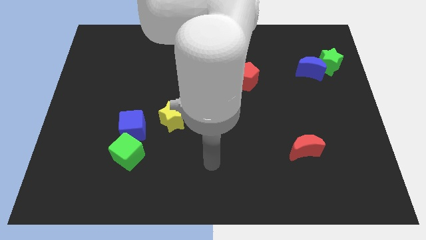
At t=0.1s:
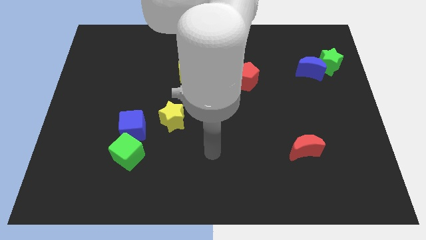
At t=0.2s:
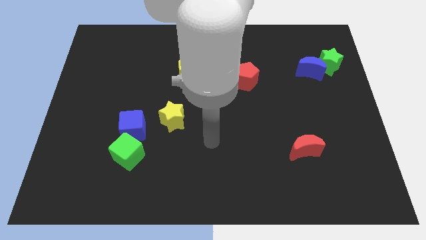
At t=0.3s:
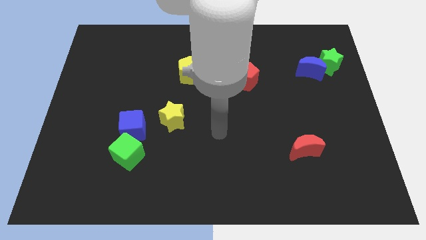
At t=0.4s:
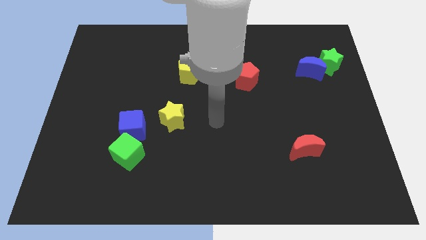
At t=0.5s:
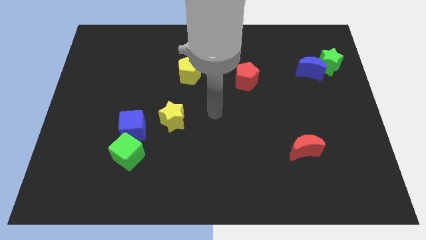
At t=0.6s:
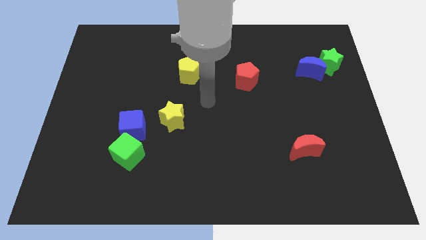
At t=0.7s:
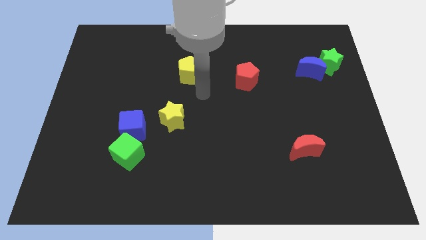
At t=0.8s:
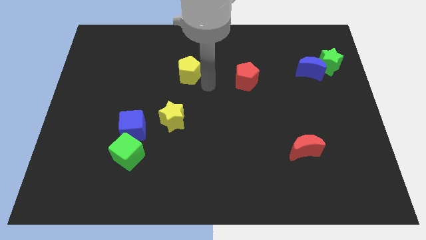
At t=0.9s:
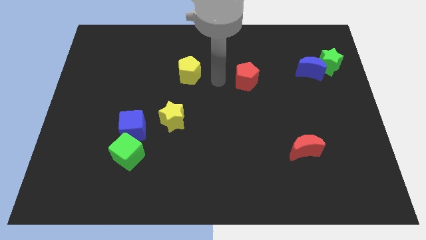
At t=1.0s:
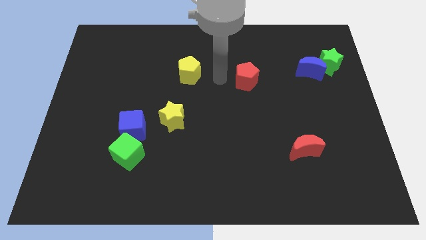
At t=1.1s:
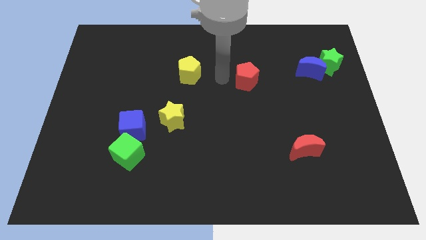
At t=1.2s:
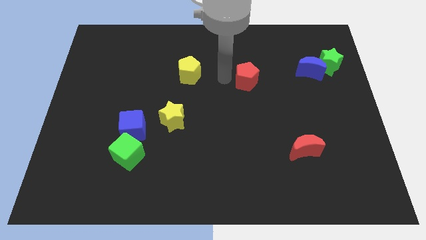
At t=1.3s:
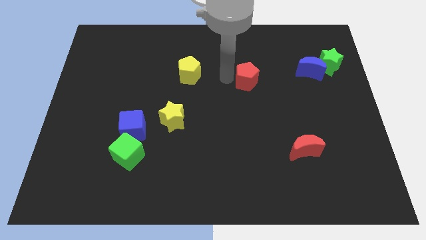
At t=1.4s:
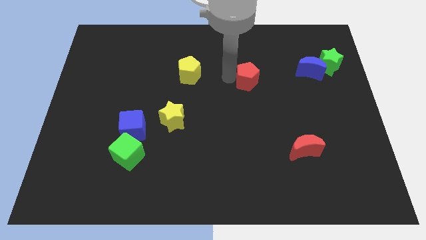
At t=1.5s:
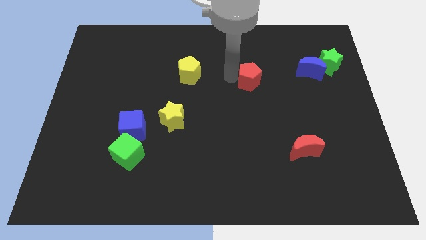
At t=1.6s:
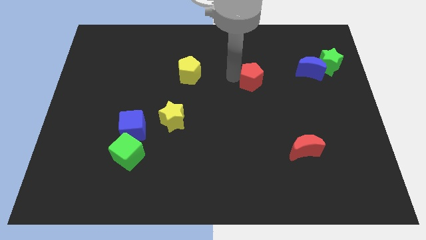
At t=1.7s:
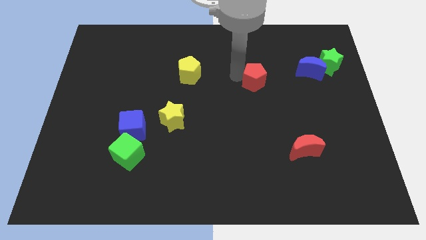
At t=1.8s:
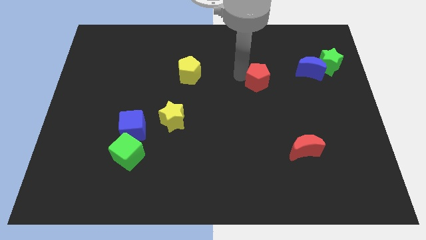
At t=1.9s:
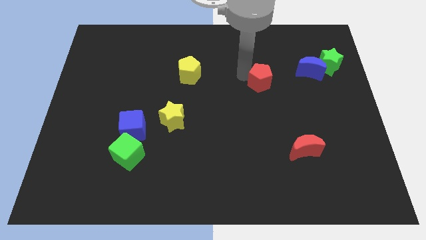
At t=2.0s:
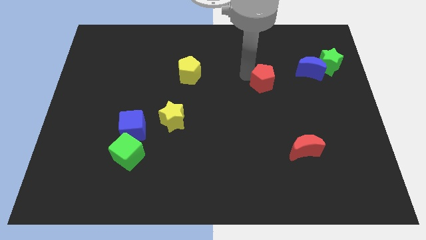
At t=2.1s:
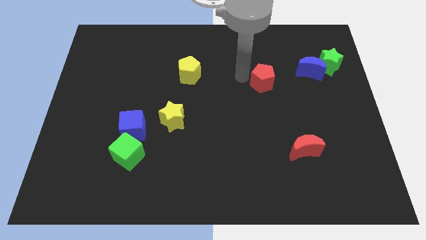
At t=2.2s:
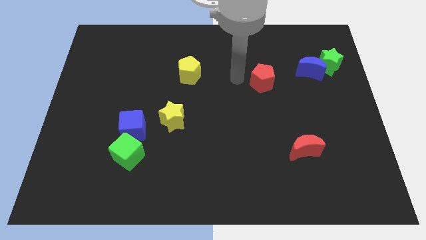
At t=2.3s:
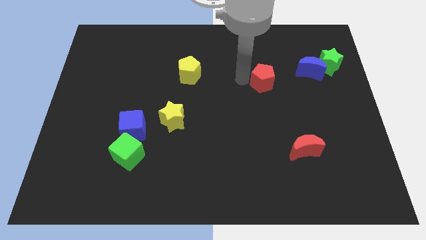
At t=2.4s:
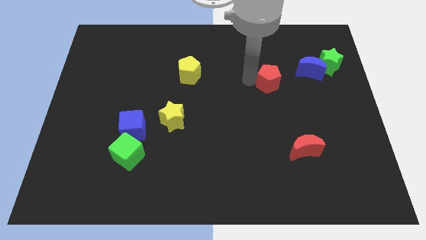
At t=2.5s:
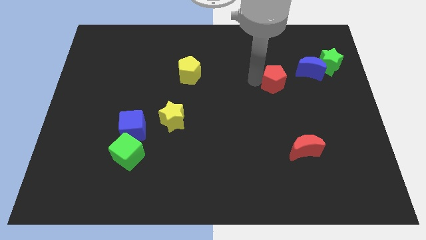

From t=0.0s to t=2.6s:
move the red pentagon somewhat to the right

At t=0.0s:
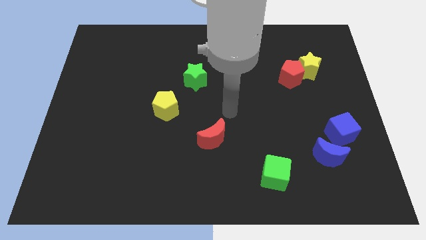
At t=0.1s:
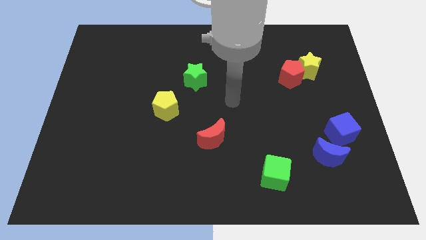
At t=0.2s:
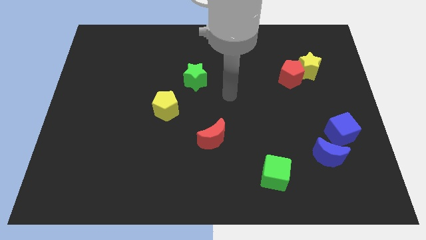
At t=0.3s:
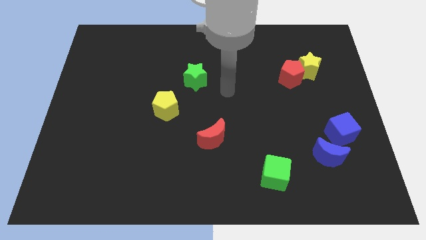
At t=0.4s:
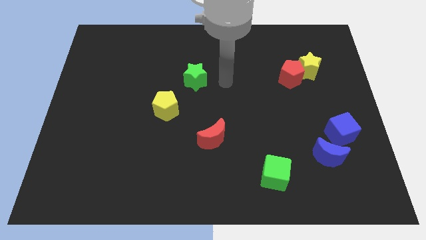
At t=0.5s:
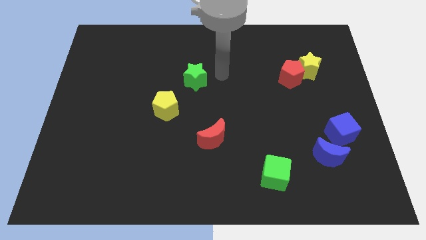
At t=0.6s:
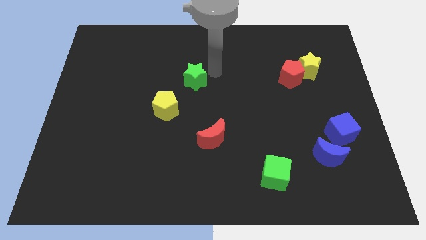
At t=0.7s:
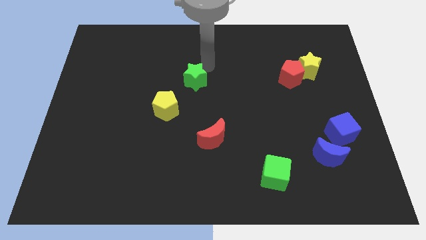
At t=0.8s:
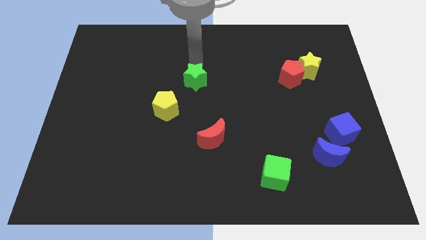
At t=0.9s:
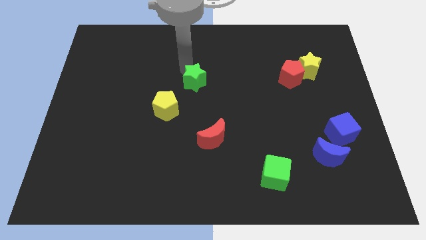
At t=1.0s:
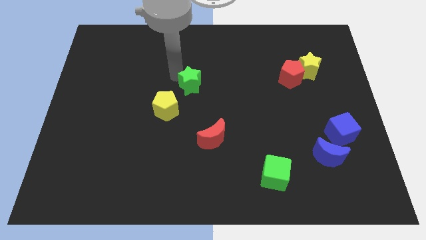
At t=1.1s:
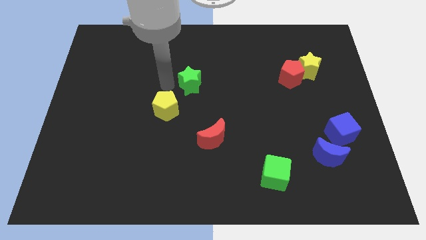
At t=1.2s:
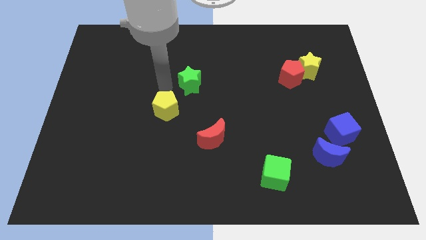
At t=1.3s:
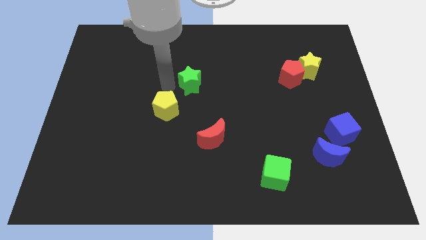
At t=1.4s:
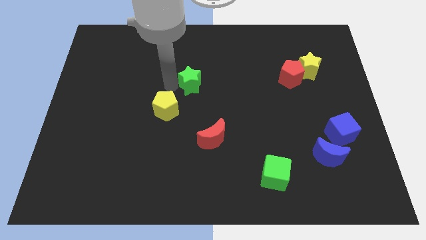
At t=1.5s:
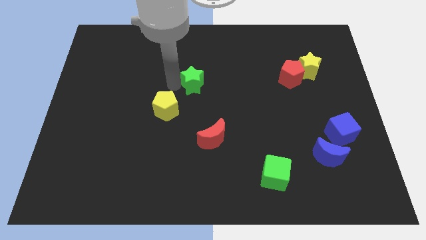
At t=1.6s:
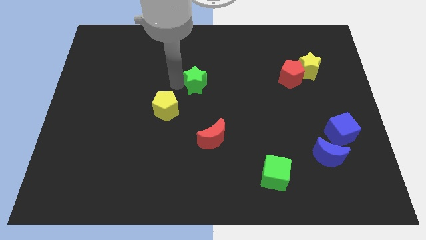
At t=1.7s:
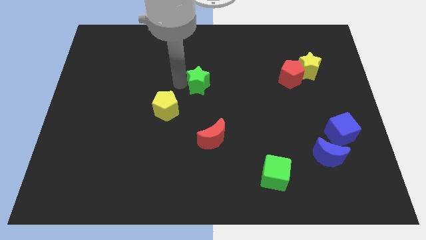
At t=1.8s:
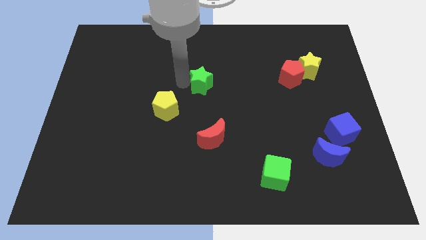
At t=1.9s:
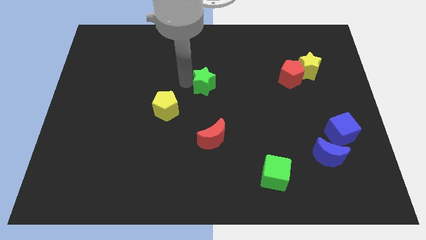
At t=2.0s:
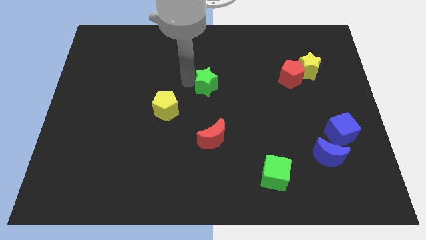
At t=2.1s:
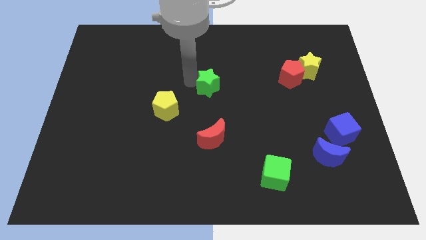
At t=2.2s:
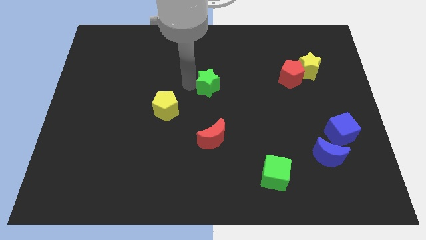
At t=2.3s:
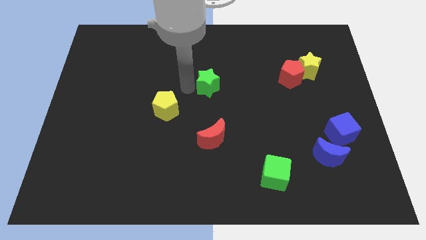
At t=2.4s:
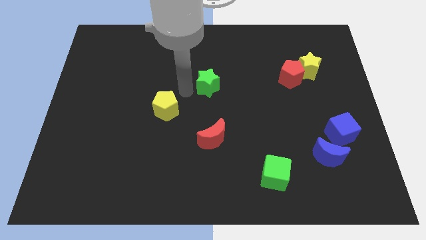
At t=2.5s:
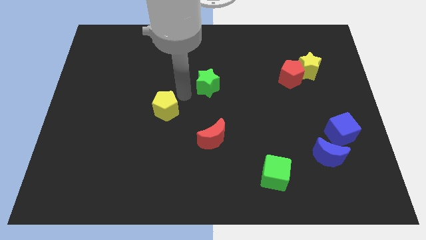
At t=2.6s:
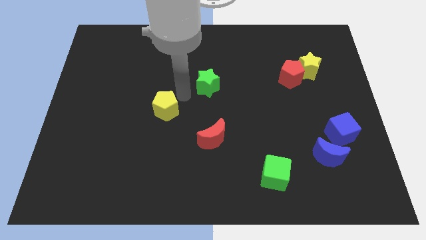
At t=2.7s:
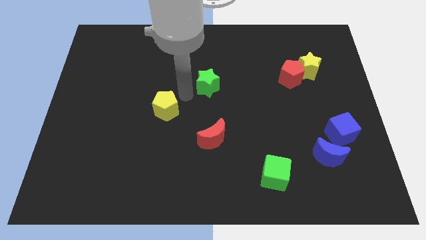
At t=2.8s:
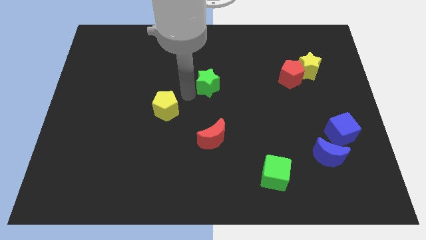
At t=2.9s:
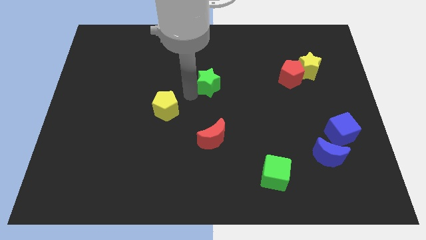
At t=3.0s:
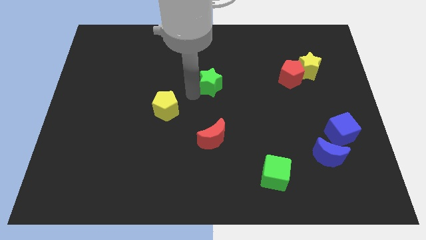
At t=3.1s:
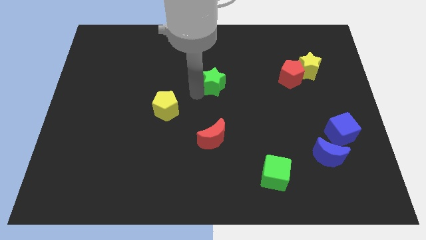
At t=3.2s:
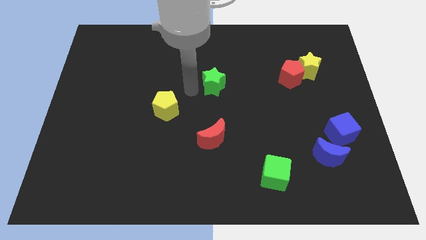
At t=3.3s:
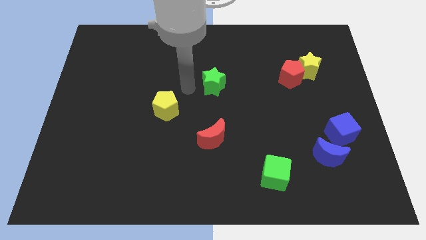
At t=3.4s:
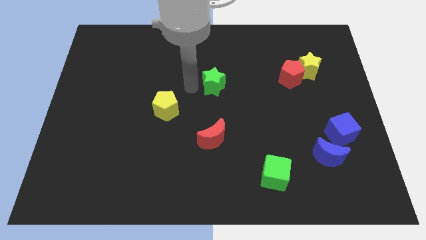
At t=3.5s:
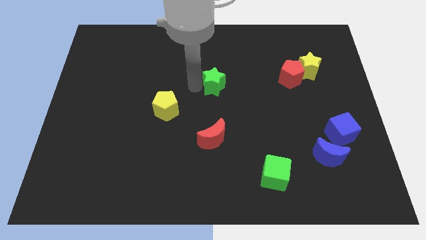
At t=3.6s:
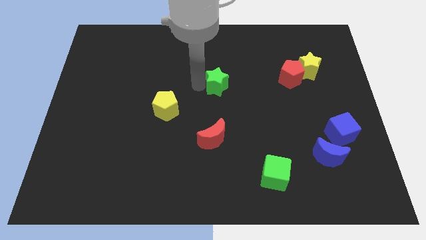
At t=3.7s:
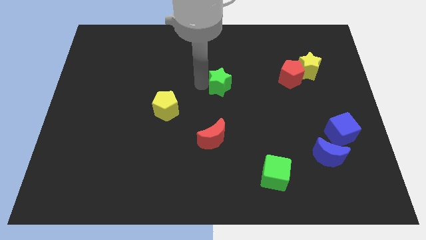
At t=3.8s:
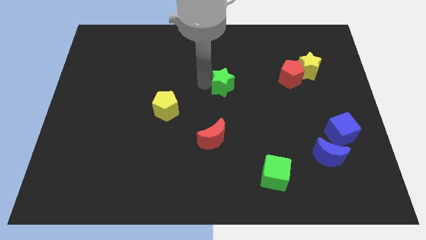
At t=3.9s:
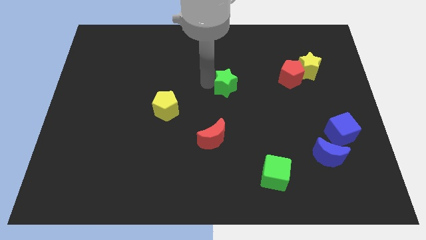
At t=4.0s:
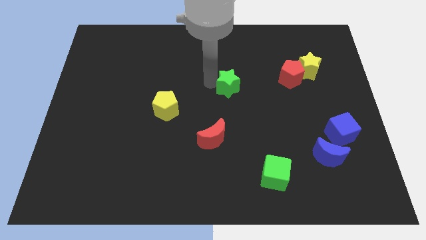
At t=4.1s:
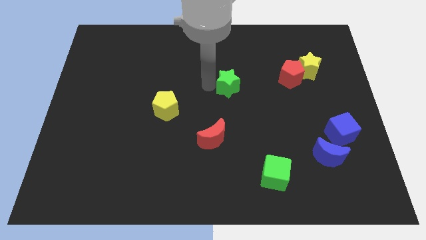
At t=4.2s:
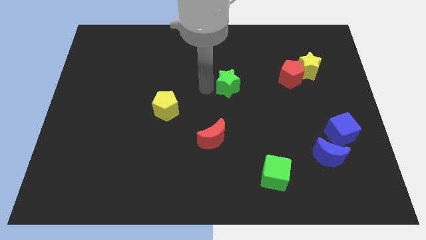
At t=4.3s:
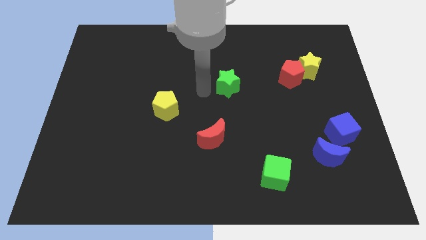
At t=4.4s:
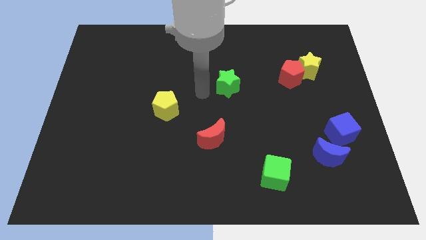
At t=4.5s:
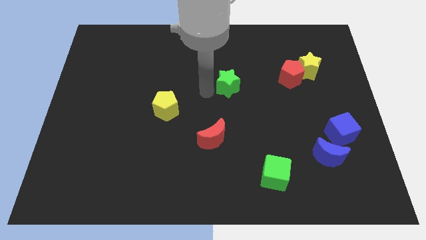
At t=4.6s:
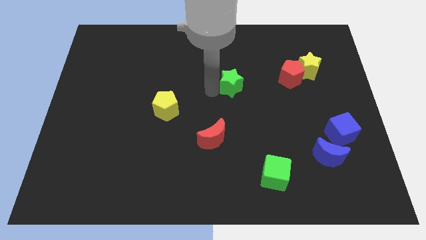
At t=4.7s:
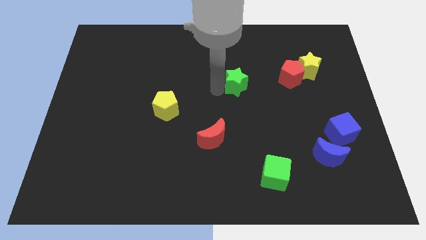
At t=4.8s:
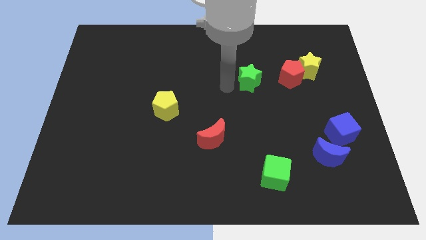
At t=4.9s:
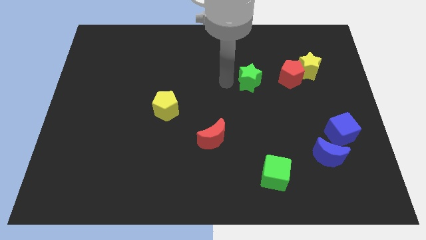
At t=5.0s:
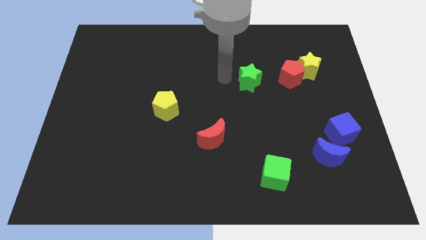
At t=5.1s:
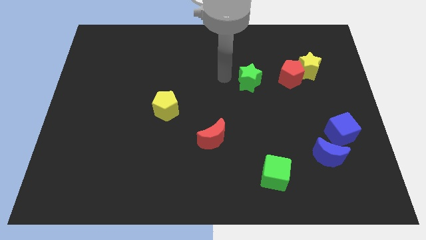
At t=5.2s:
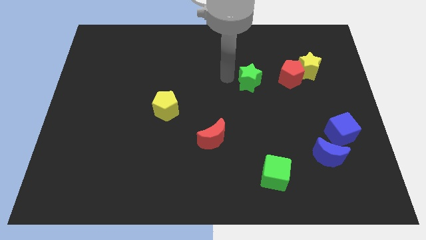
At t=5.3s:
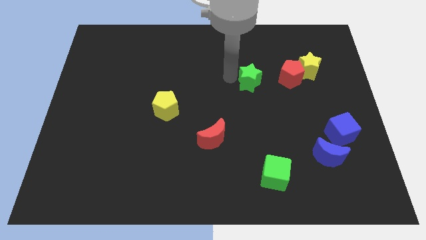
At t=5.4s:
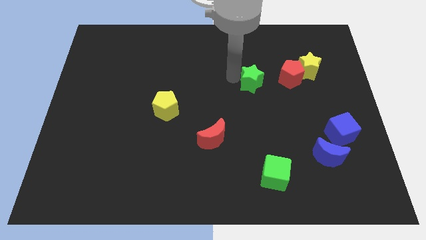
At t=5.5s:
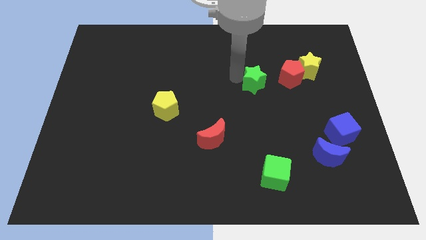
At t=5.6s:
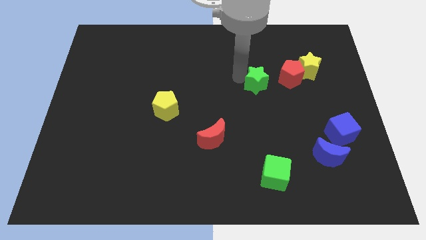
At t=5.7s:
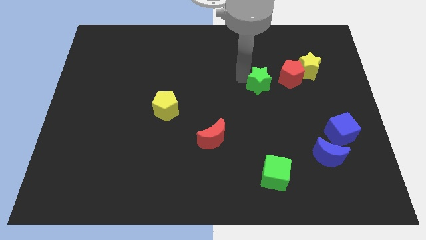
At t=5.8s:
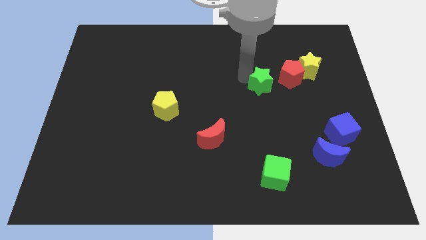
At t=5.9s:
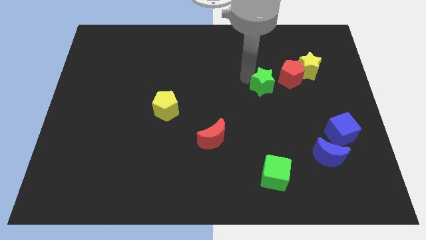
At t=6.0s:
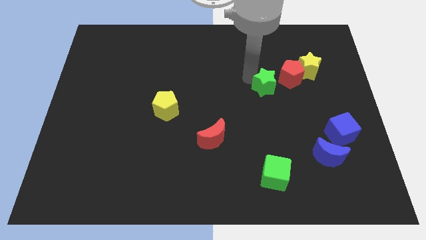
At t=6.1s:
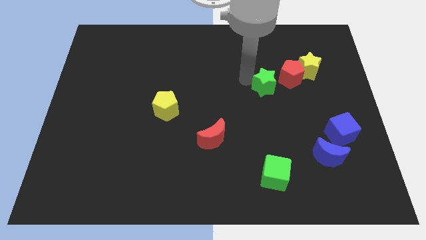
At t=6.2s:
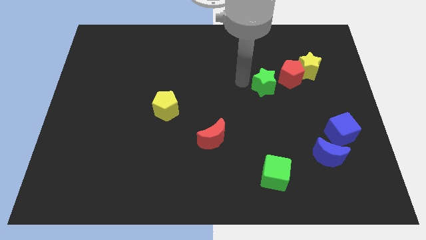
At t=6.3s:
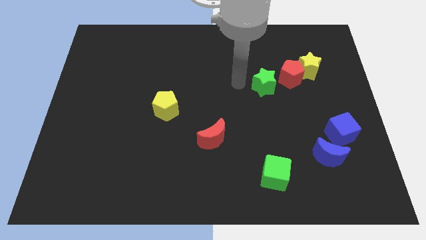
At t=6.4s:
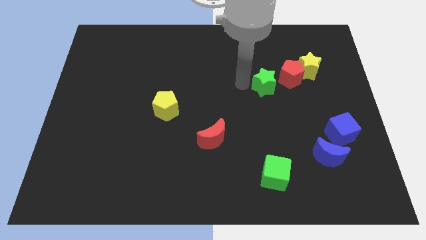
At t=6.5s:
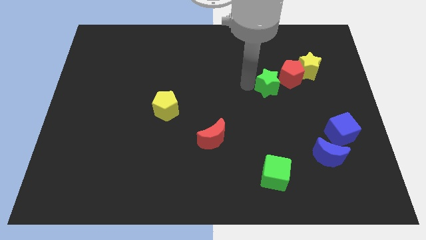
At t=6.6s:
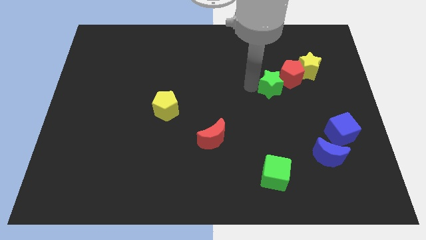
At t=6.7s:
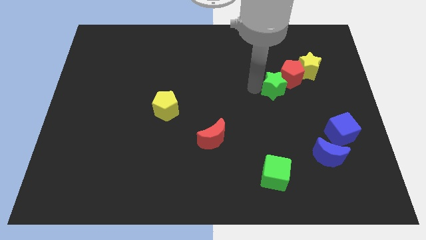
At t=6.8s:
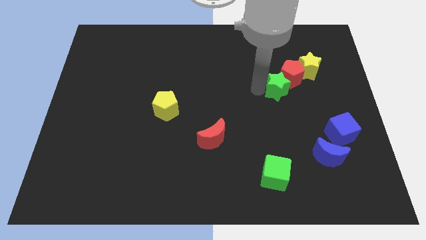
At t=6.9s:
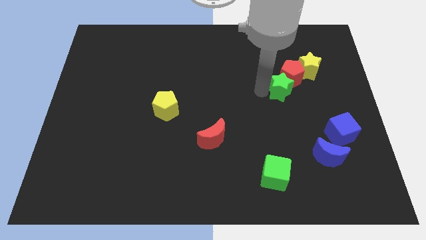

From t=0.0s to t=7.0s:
slide the green star right
